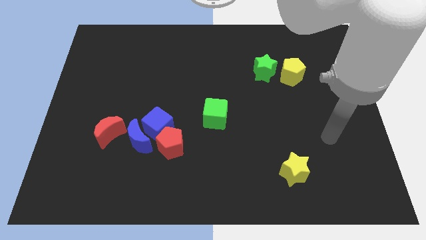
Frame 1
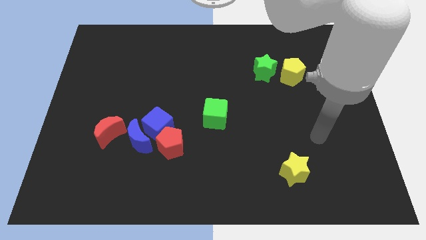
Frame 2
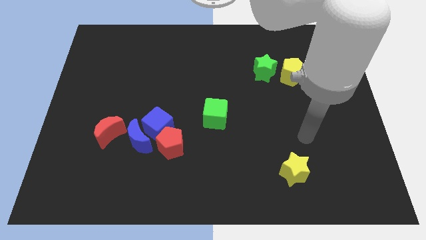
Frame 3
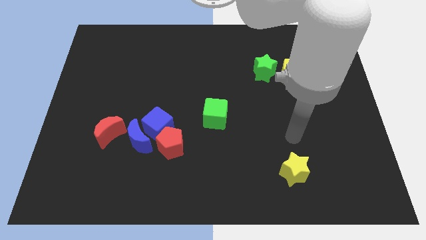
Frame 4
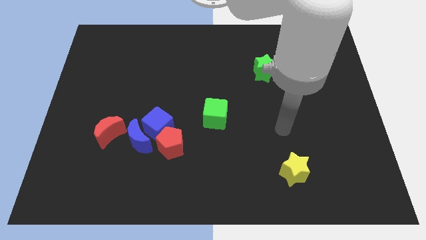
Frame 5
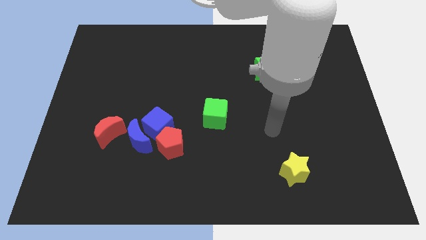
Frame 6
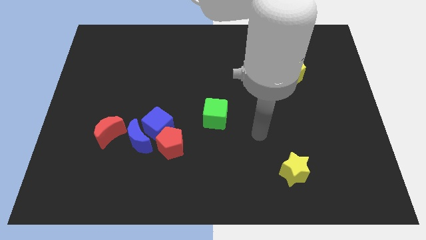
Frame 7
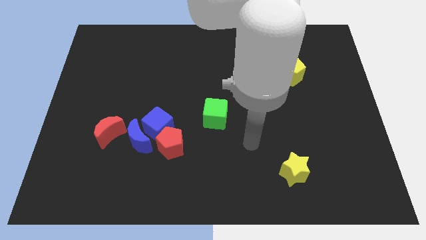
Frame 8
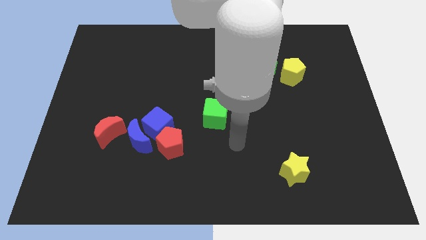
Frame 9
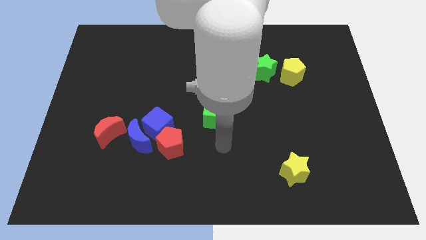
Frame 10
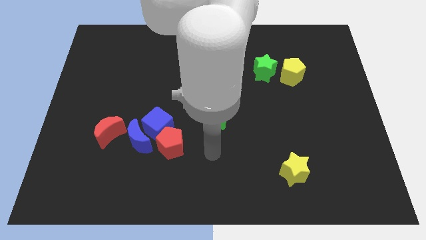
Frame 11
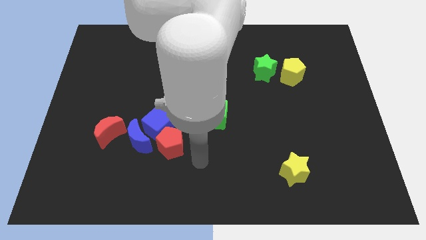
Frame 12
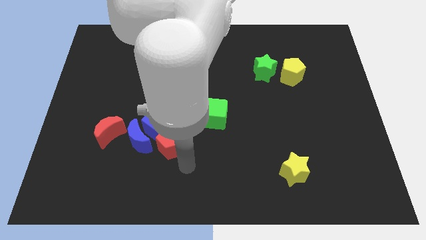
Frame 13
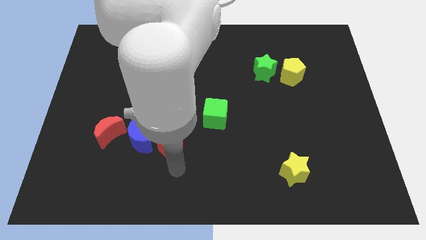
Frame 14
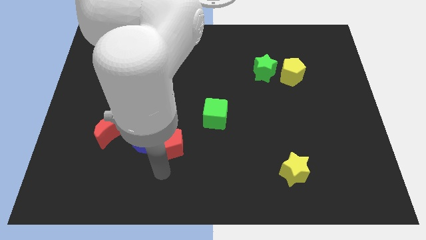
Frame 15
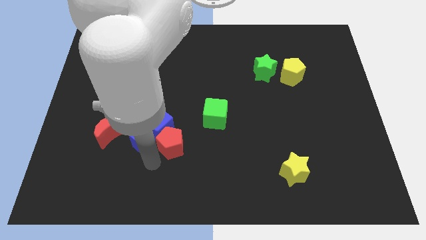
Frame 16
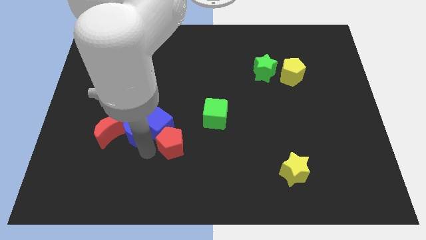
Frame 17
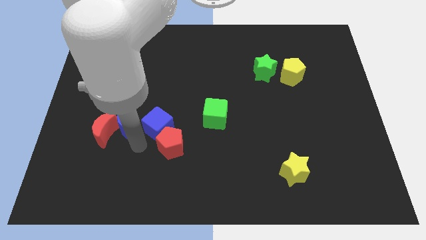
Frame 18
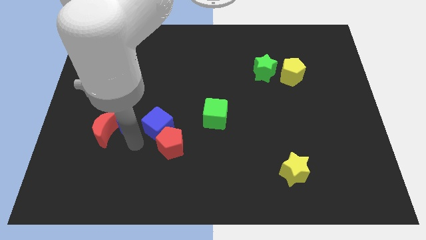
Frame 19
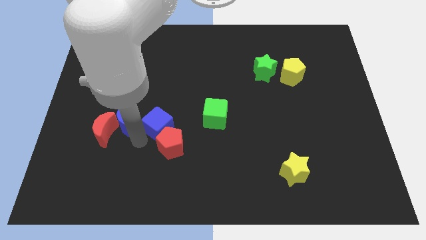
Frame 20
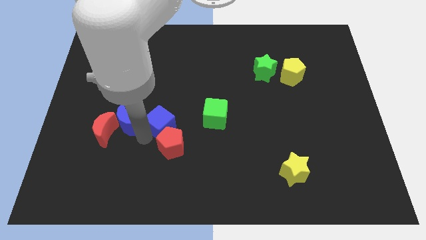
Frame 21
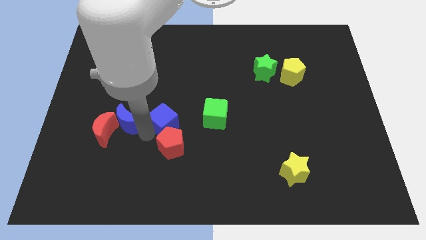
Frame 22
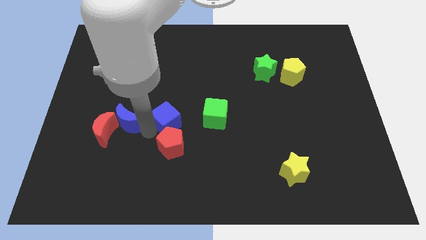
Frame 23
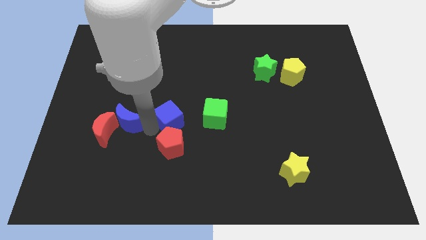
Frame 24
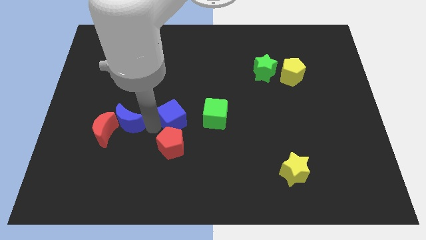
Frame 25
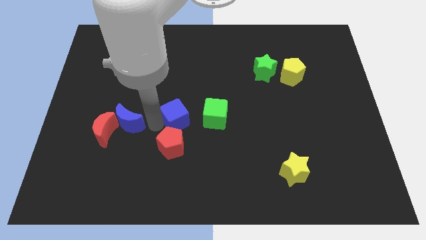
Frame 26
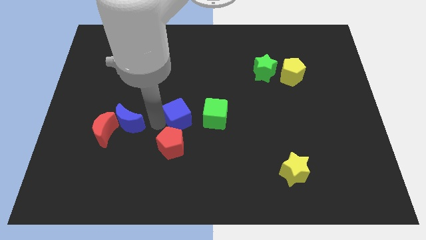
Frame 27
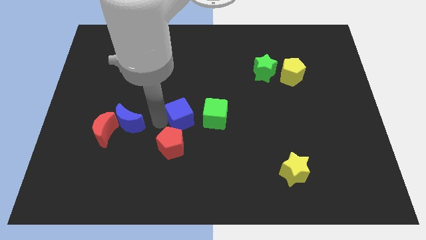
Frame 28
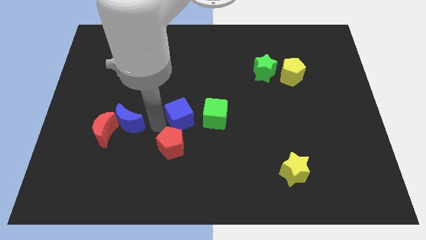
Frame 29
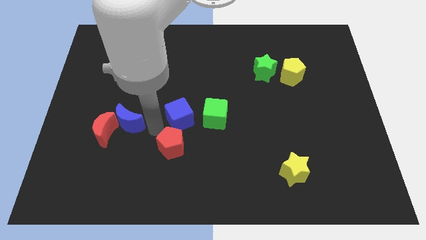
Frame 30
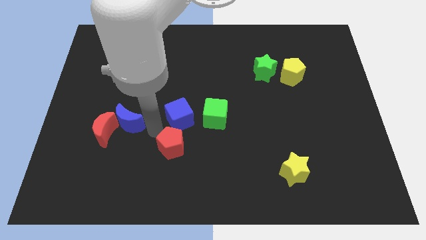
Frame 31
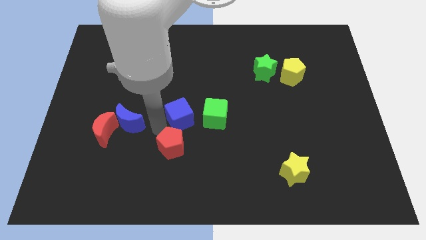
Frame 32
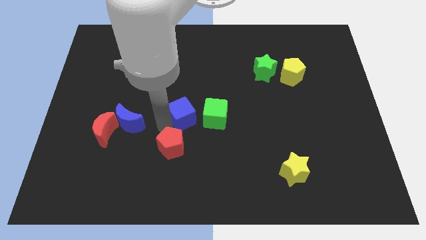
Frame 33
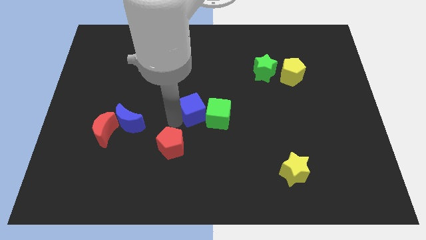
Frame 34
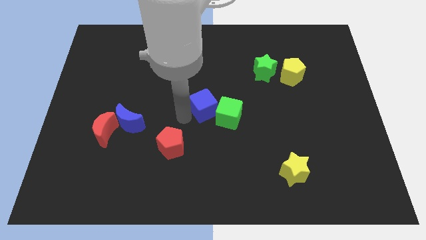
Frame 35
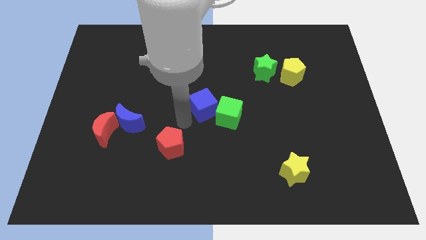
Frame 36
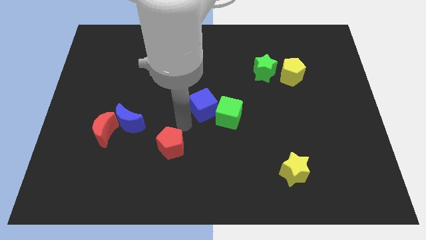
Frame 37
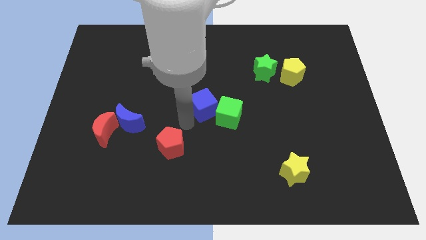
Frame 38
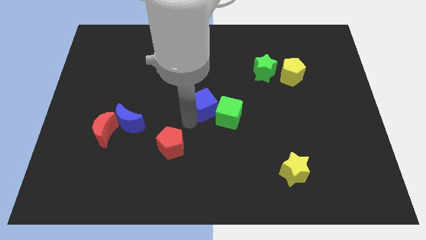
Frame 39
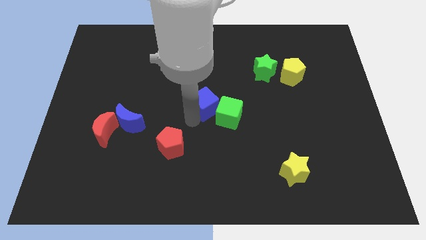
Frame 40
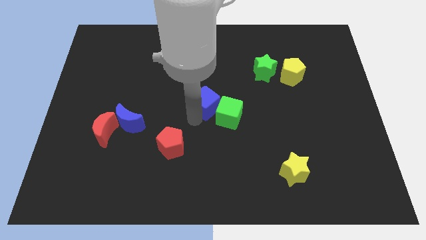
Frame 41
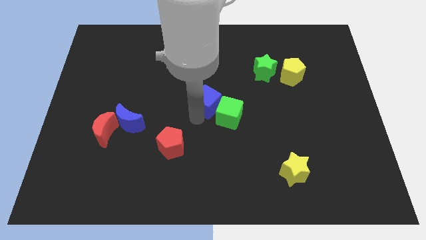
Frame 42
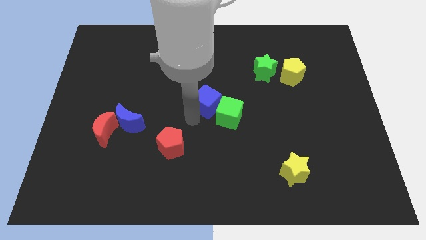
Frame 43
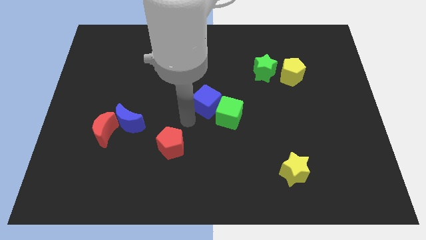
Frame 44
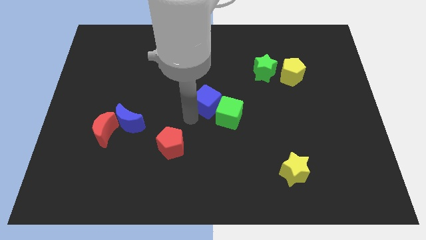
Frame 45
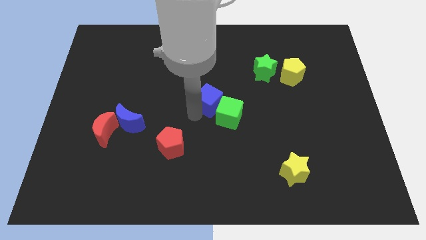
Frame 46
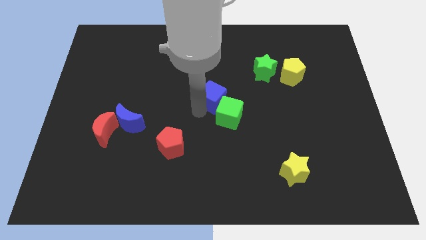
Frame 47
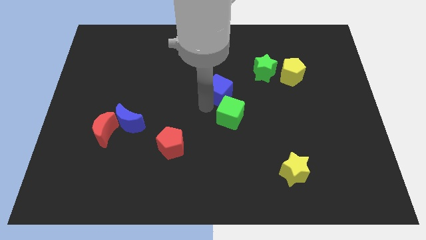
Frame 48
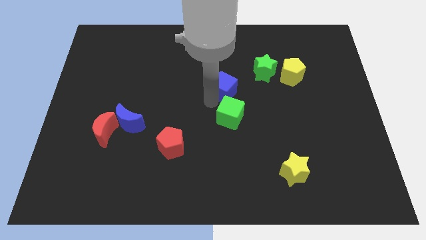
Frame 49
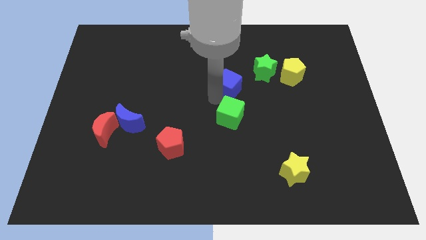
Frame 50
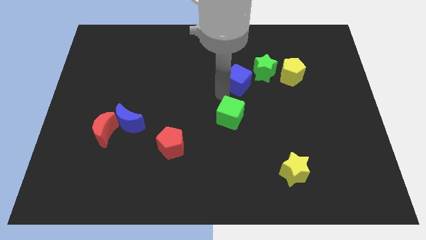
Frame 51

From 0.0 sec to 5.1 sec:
push the blue cube up and to the right diagonally

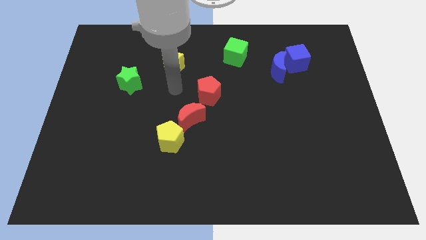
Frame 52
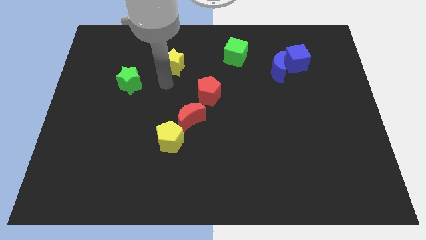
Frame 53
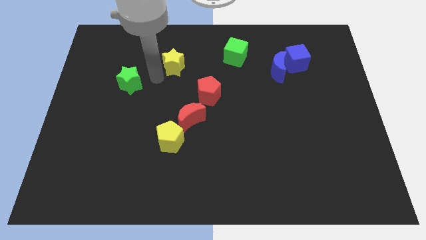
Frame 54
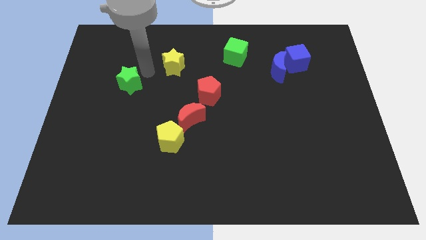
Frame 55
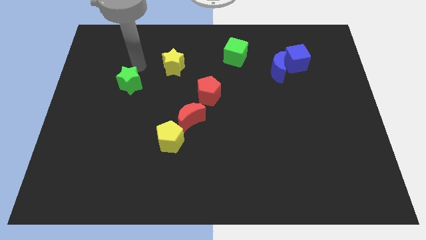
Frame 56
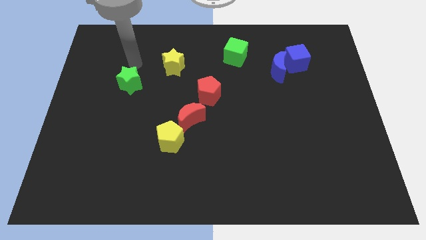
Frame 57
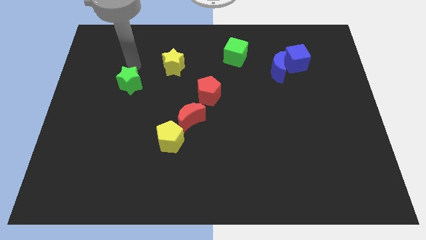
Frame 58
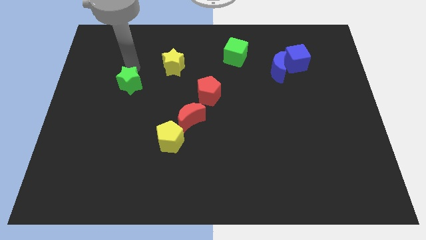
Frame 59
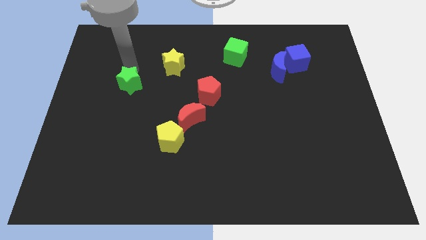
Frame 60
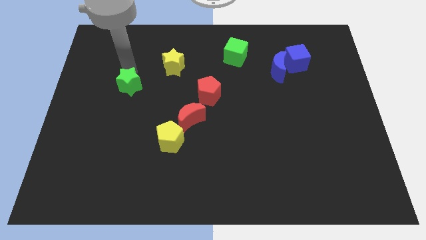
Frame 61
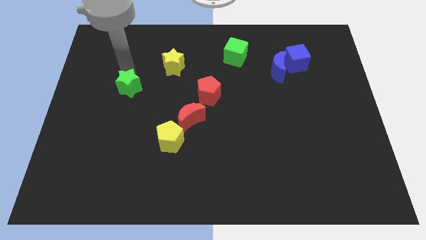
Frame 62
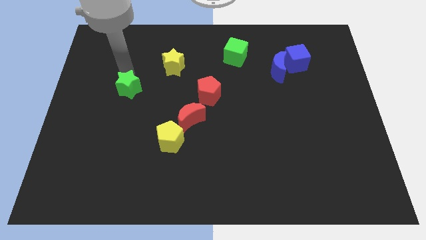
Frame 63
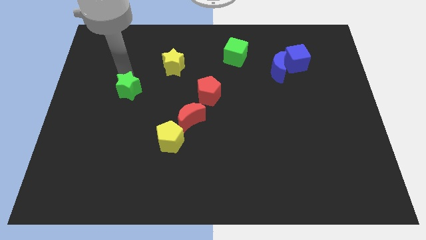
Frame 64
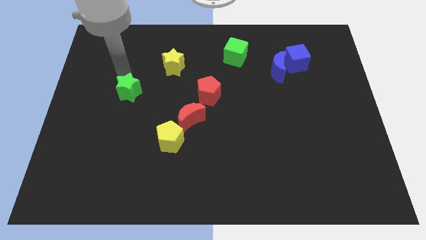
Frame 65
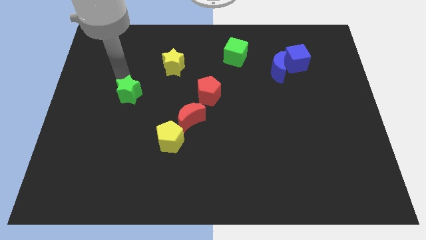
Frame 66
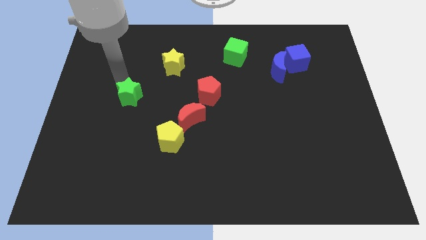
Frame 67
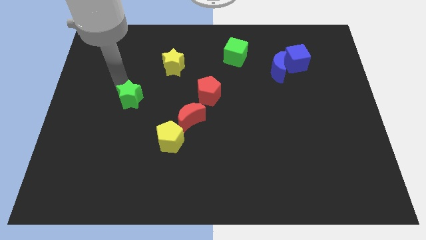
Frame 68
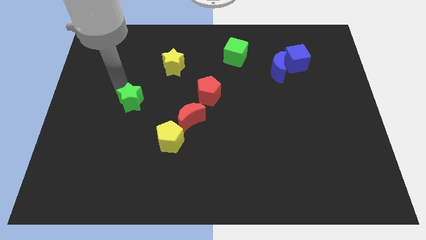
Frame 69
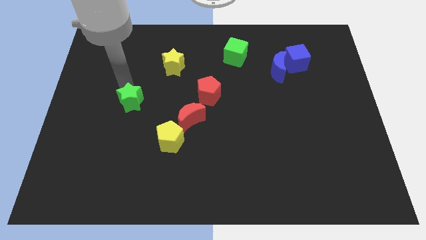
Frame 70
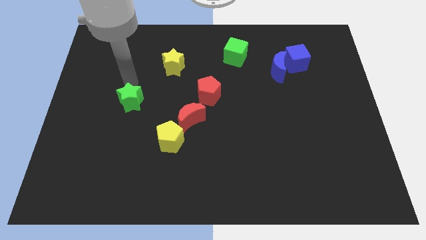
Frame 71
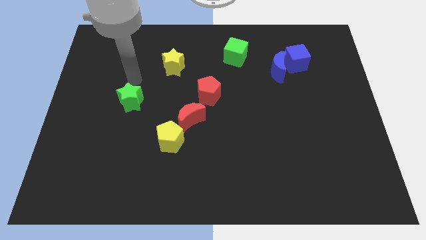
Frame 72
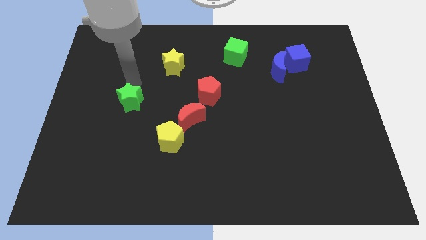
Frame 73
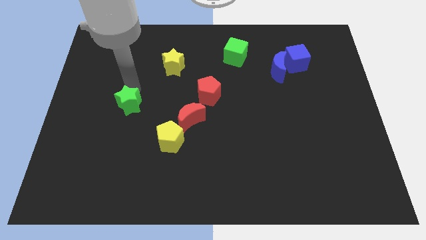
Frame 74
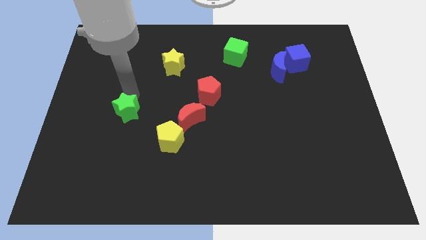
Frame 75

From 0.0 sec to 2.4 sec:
slightly slide the green star down

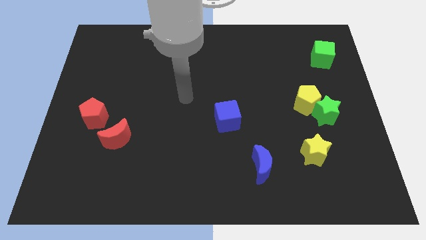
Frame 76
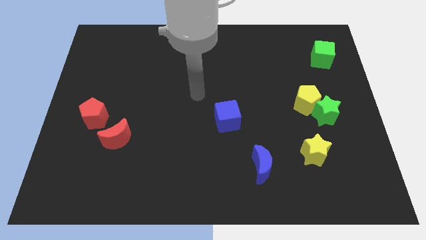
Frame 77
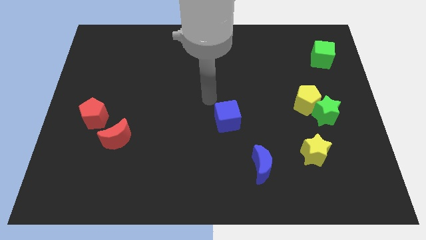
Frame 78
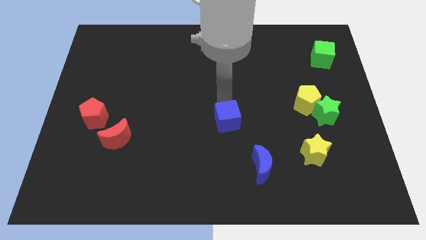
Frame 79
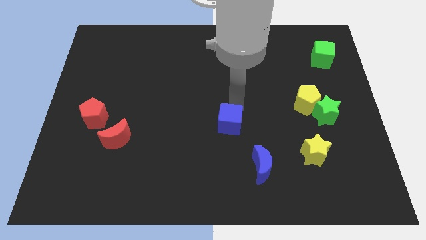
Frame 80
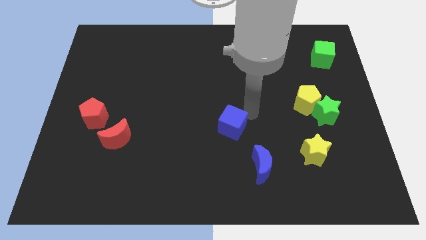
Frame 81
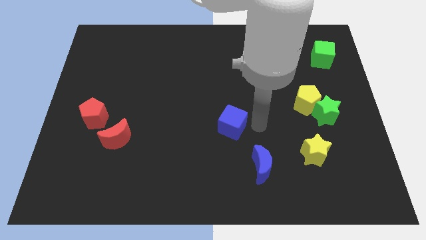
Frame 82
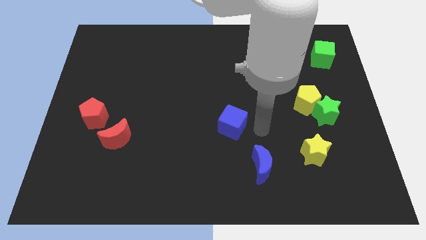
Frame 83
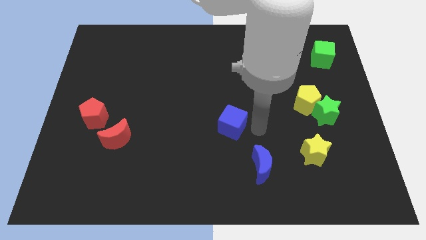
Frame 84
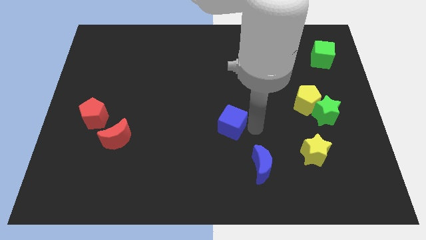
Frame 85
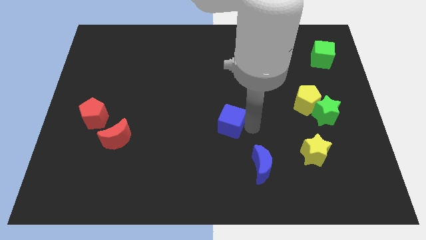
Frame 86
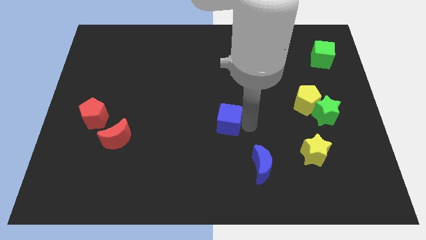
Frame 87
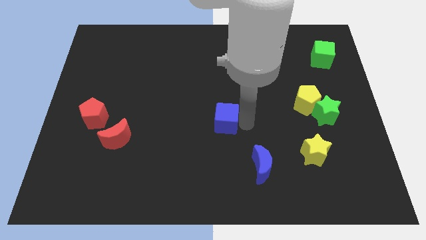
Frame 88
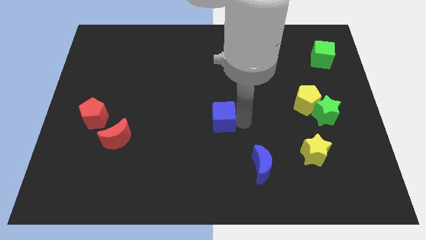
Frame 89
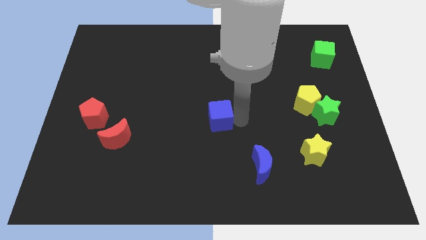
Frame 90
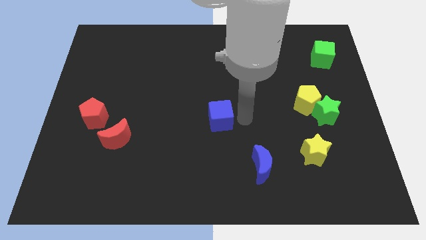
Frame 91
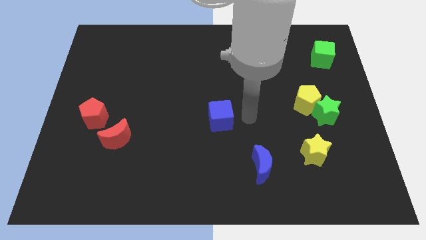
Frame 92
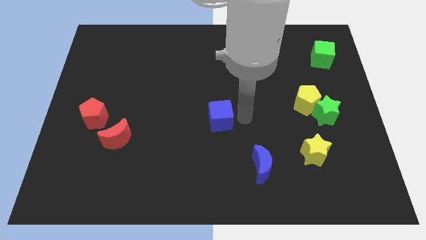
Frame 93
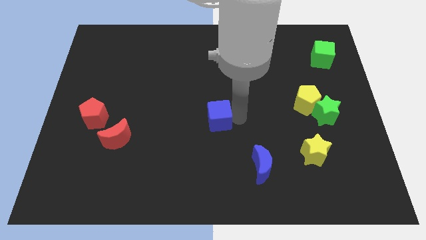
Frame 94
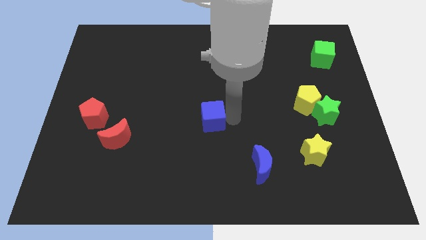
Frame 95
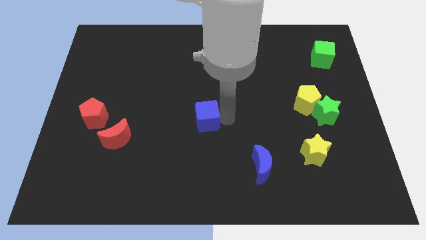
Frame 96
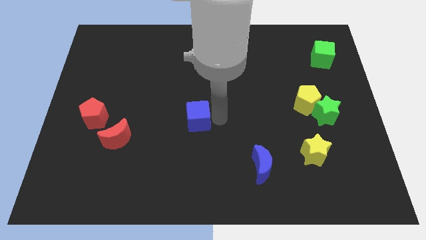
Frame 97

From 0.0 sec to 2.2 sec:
slide the blue cube left a little bit
